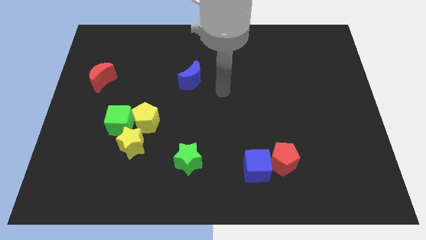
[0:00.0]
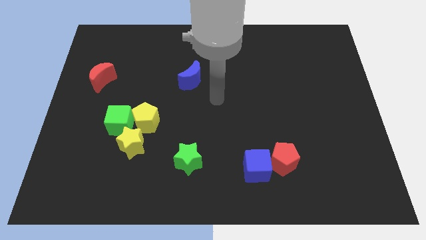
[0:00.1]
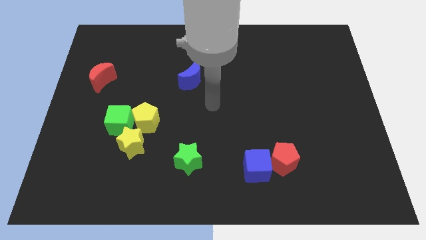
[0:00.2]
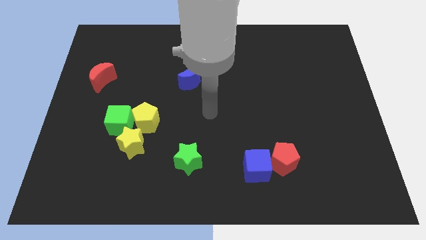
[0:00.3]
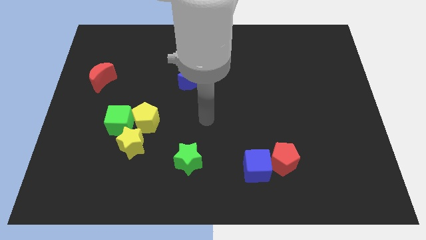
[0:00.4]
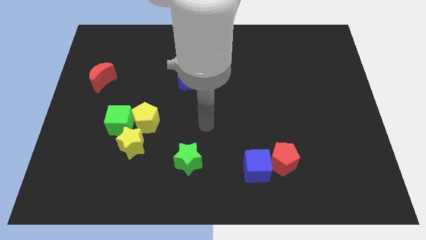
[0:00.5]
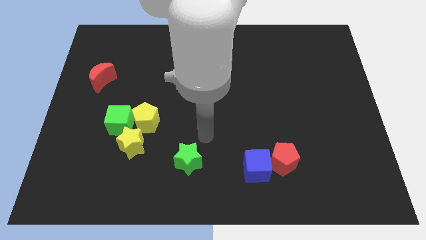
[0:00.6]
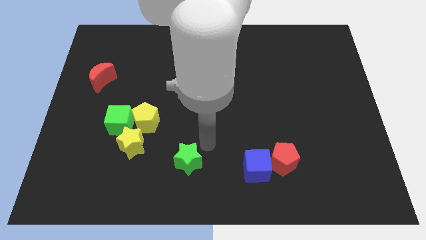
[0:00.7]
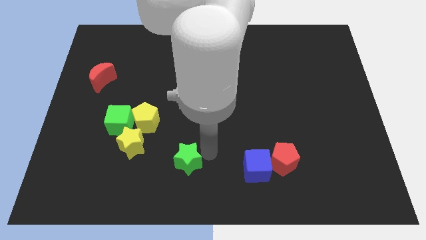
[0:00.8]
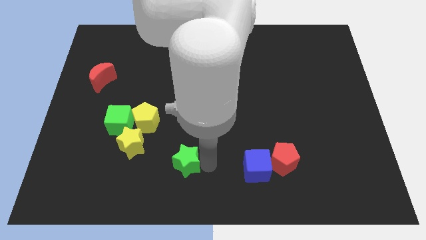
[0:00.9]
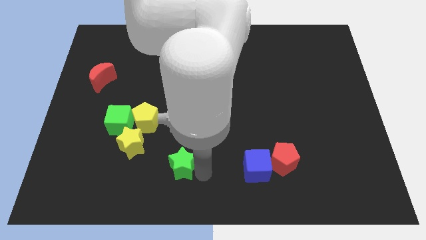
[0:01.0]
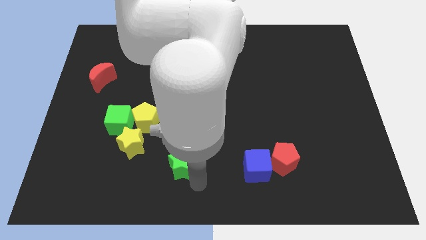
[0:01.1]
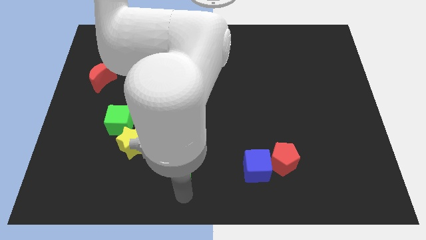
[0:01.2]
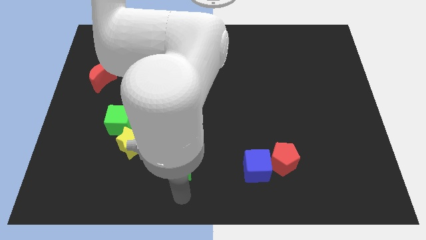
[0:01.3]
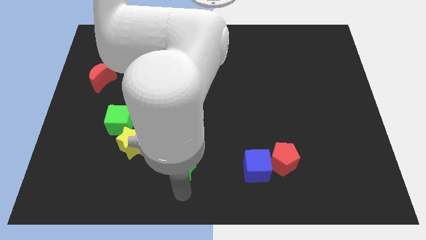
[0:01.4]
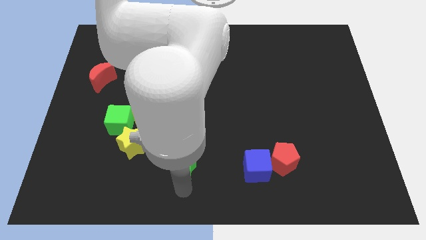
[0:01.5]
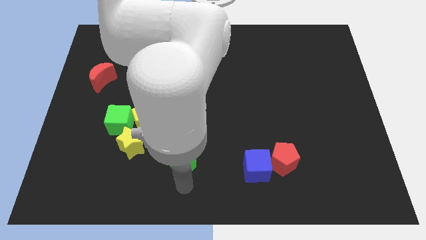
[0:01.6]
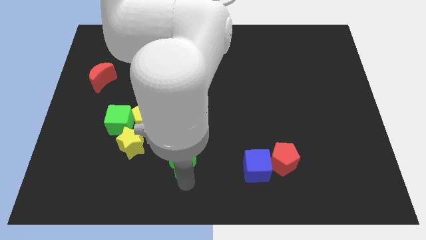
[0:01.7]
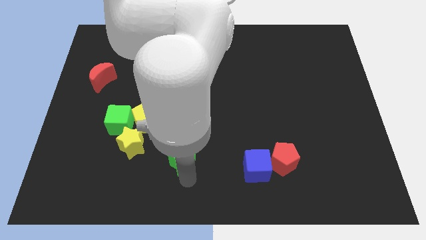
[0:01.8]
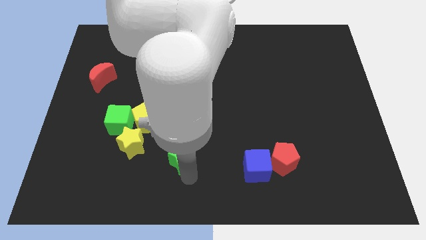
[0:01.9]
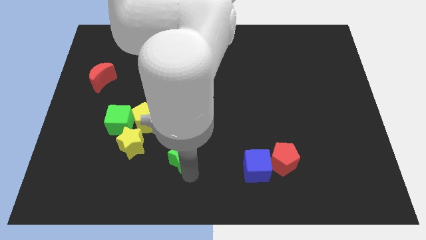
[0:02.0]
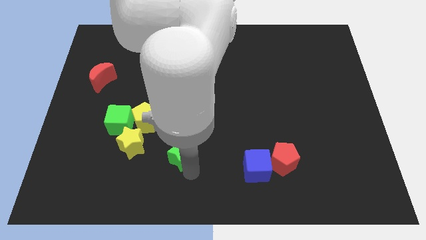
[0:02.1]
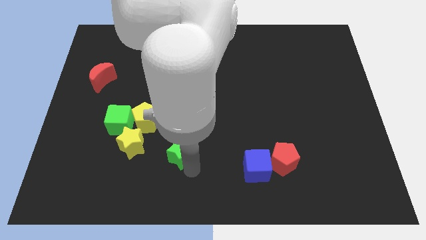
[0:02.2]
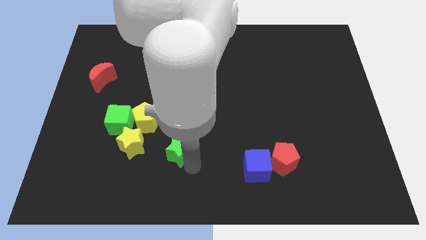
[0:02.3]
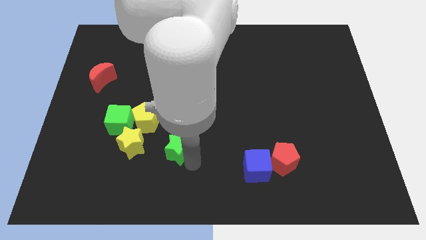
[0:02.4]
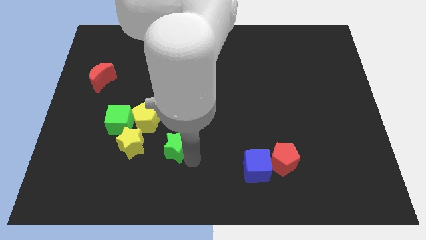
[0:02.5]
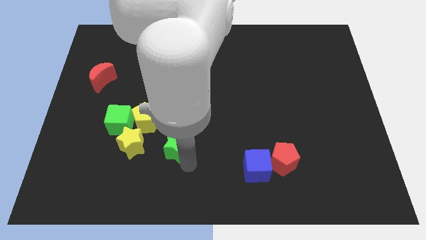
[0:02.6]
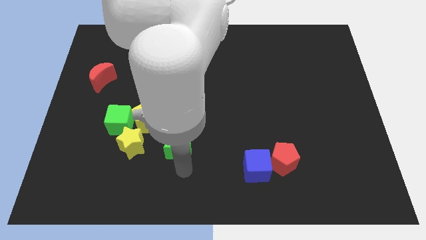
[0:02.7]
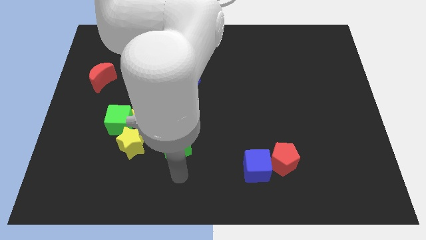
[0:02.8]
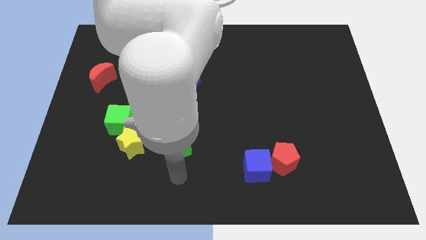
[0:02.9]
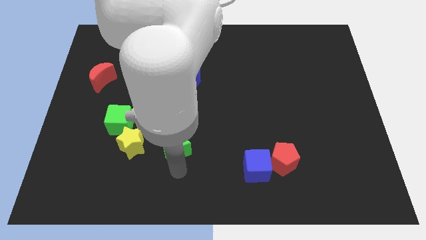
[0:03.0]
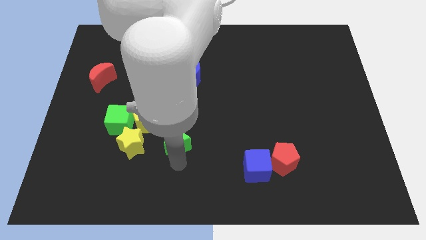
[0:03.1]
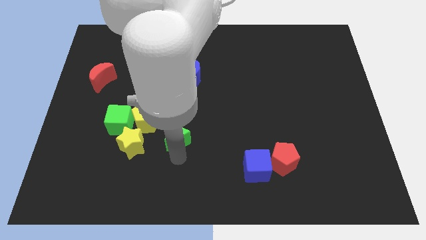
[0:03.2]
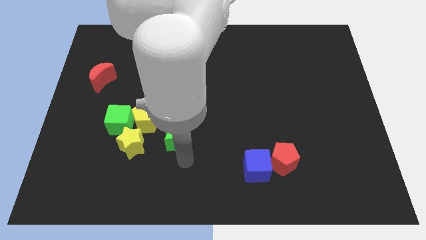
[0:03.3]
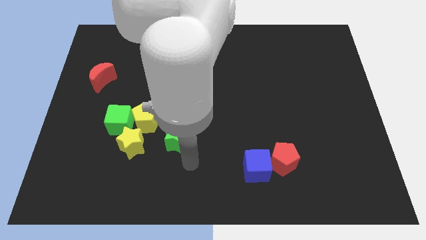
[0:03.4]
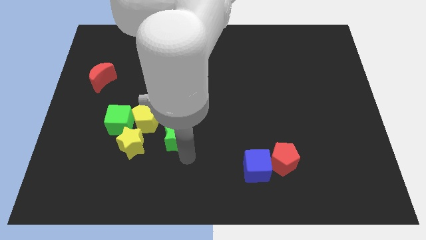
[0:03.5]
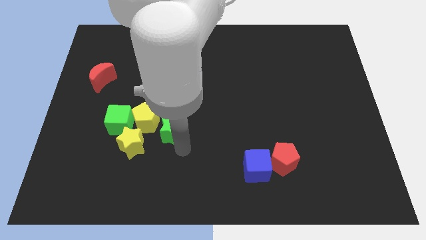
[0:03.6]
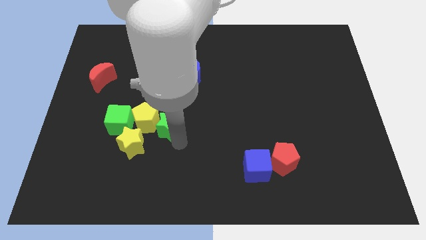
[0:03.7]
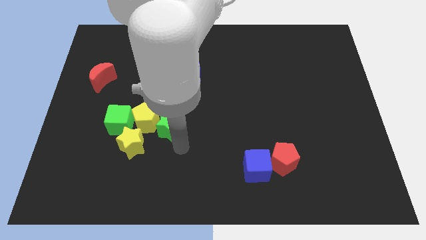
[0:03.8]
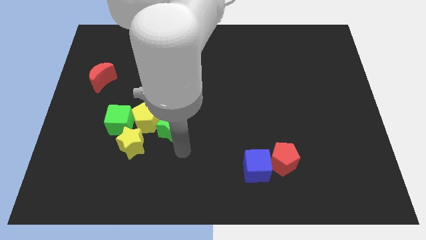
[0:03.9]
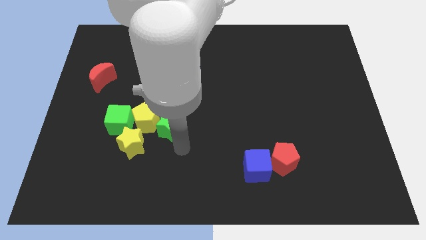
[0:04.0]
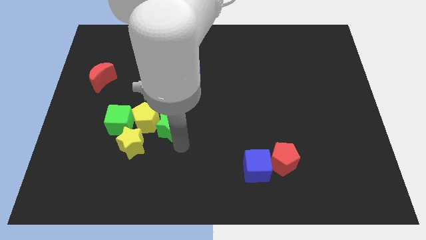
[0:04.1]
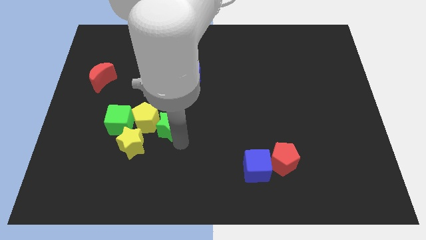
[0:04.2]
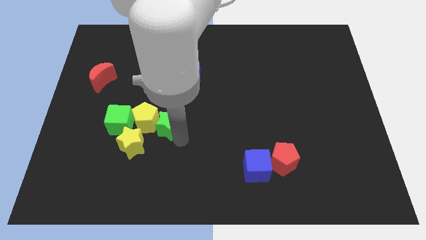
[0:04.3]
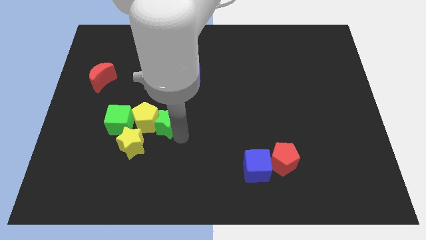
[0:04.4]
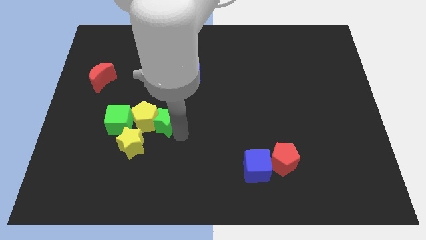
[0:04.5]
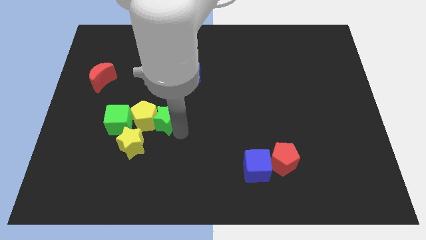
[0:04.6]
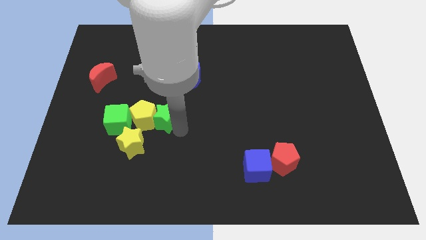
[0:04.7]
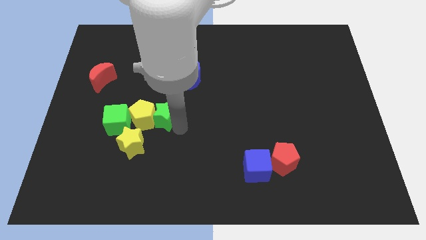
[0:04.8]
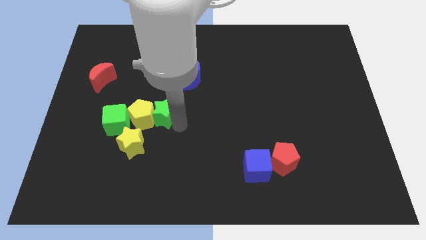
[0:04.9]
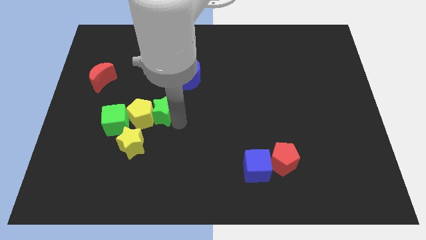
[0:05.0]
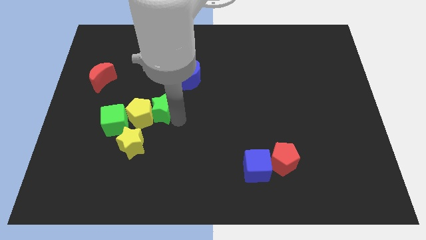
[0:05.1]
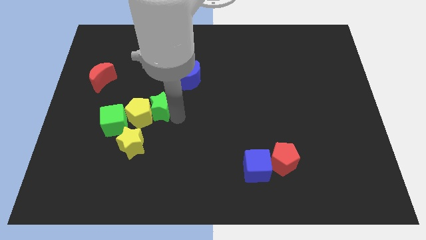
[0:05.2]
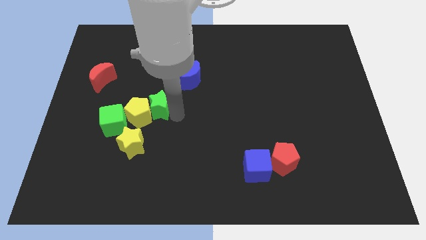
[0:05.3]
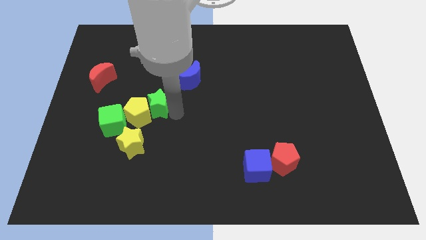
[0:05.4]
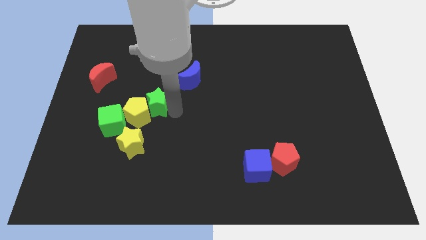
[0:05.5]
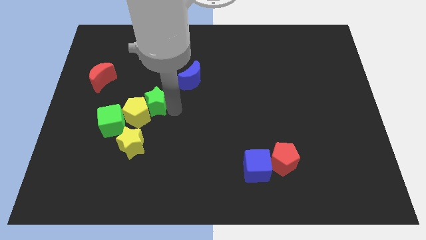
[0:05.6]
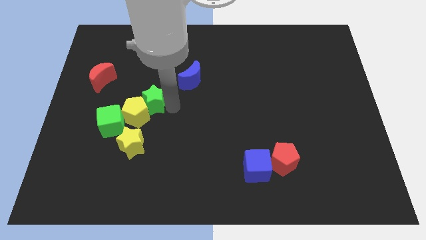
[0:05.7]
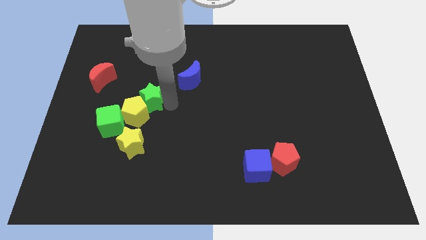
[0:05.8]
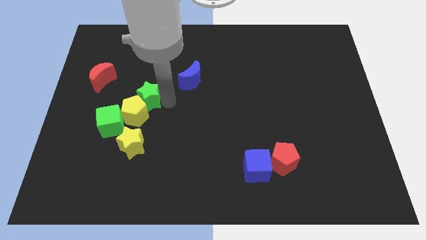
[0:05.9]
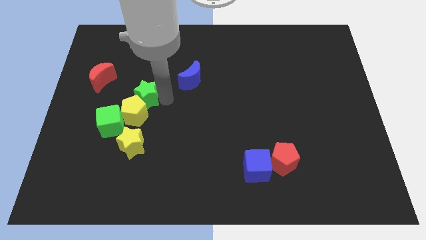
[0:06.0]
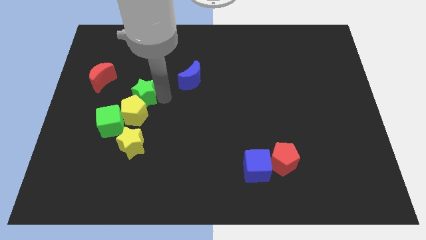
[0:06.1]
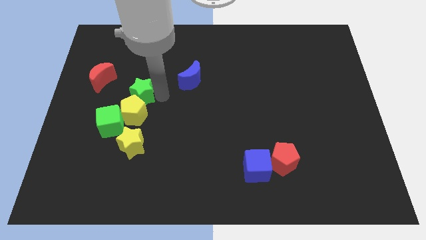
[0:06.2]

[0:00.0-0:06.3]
push the green star to the top left of the yellow pentagon
